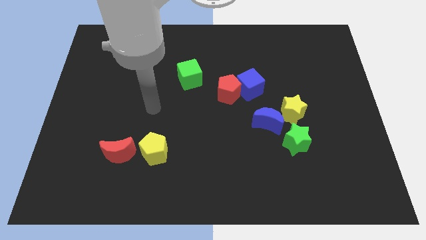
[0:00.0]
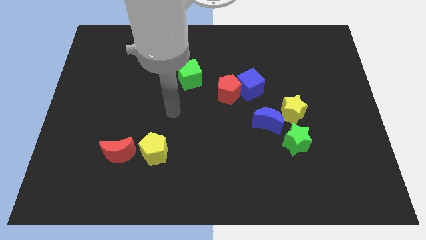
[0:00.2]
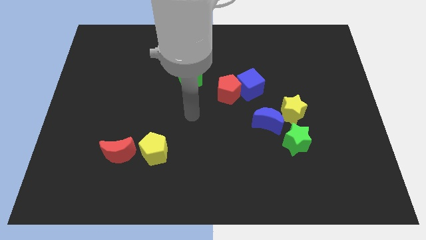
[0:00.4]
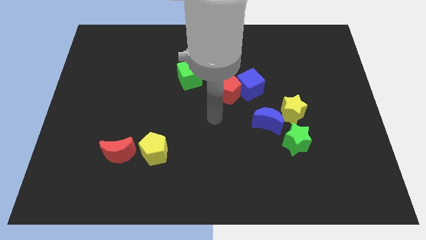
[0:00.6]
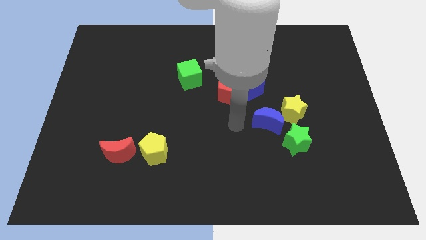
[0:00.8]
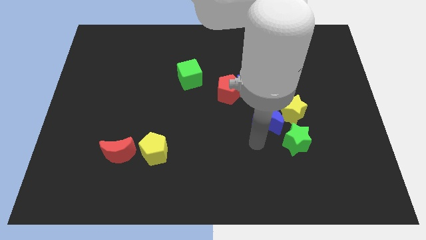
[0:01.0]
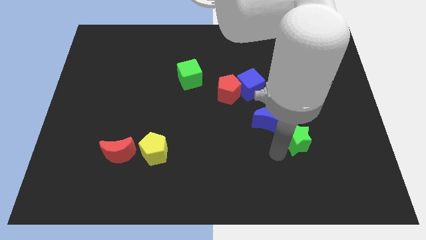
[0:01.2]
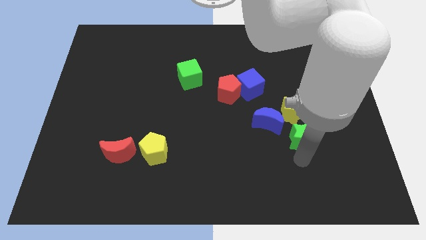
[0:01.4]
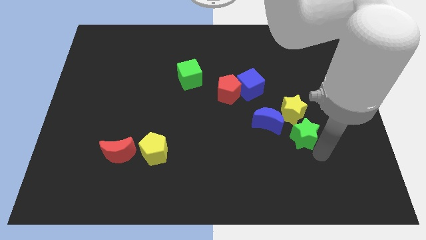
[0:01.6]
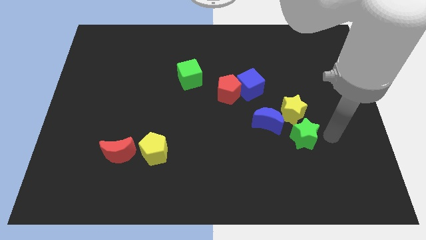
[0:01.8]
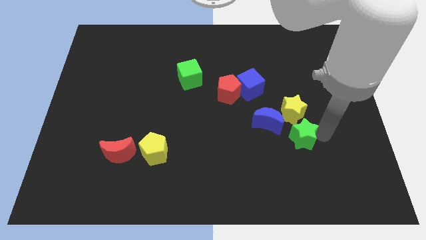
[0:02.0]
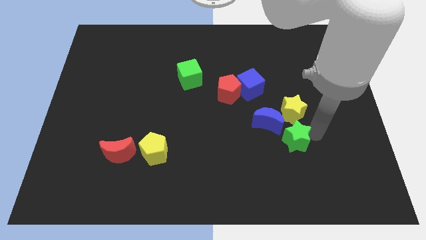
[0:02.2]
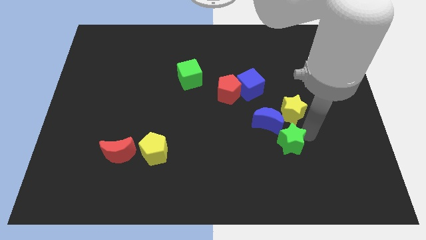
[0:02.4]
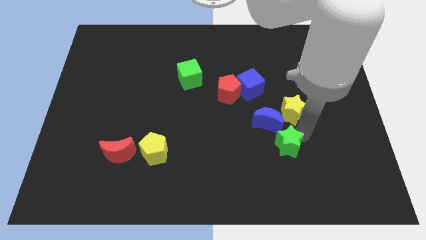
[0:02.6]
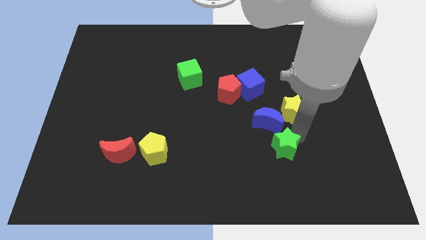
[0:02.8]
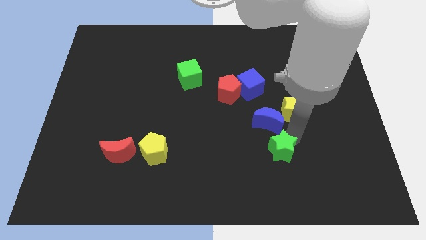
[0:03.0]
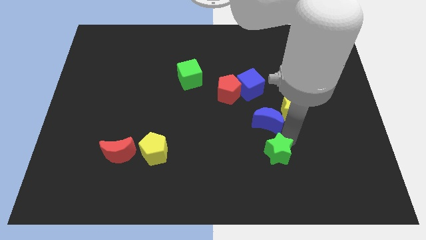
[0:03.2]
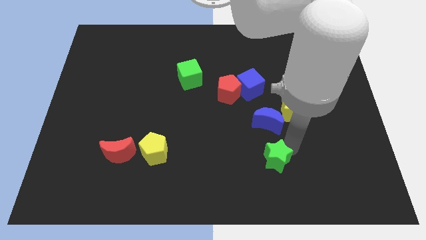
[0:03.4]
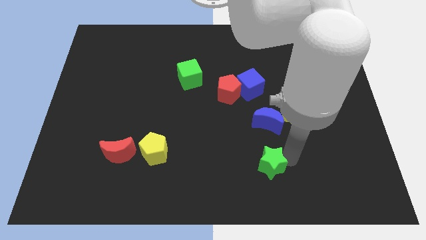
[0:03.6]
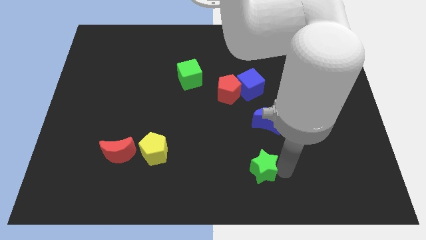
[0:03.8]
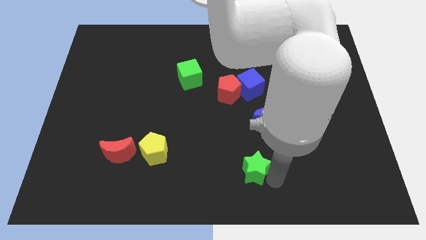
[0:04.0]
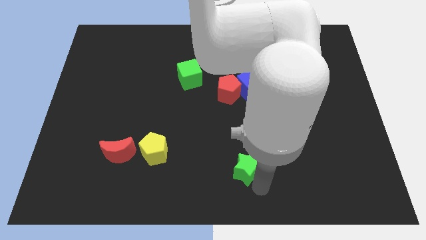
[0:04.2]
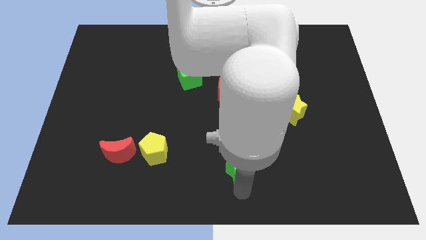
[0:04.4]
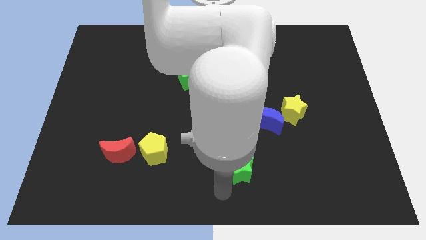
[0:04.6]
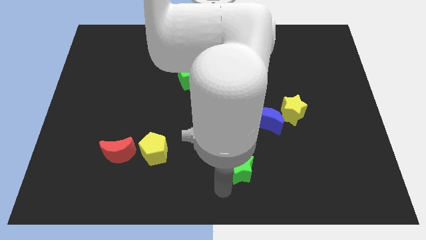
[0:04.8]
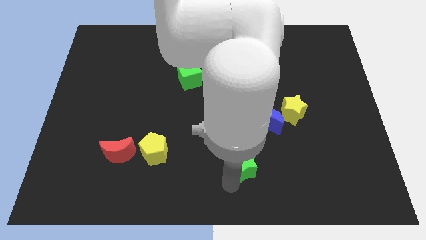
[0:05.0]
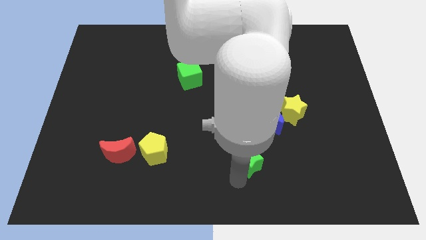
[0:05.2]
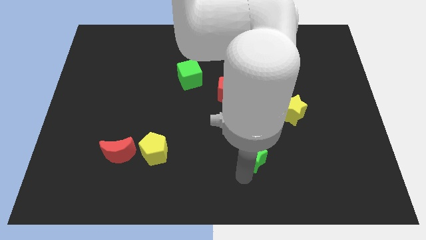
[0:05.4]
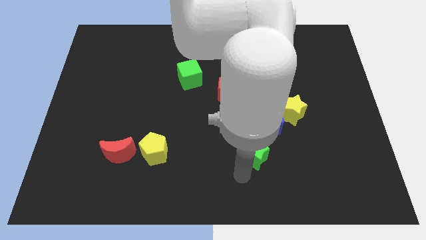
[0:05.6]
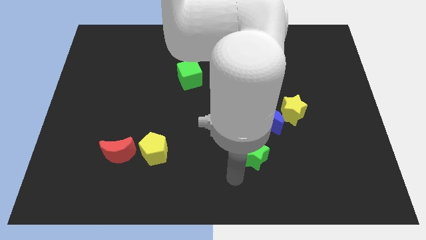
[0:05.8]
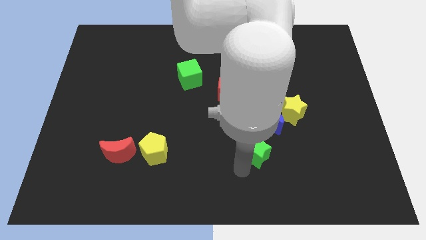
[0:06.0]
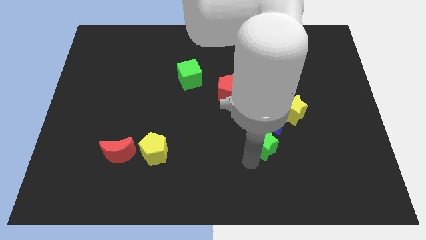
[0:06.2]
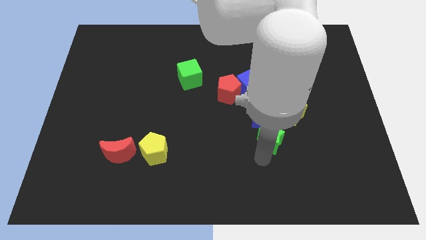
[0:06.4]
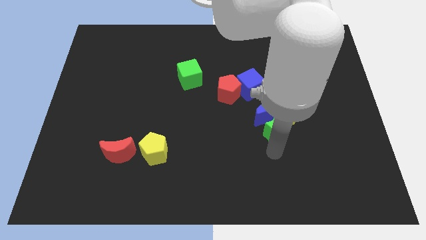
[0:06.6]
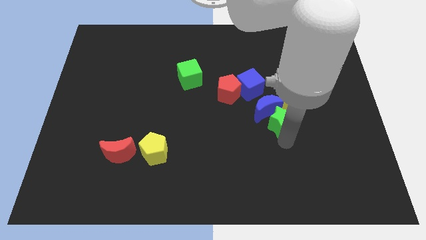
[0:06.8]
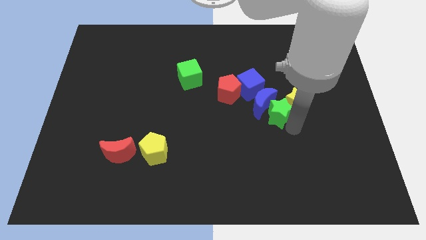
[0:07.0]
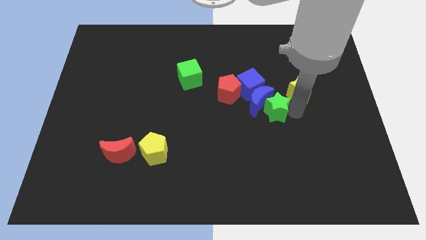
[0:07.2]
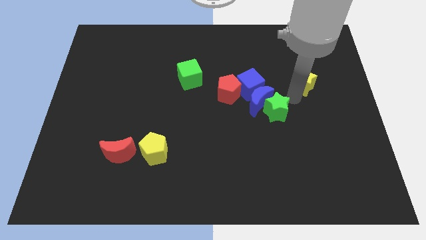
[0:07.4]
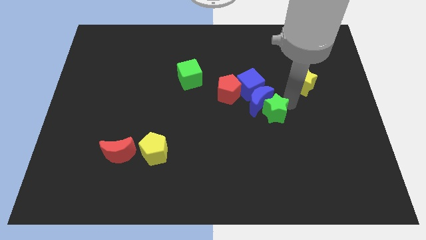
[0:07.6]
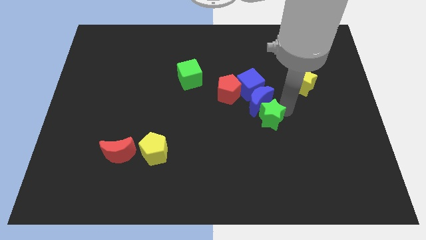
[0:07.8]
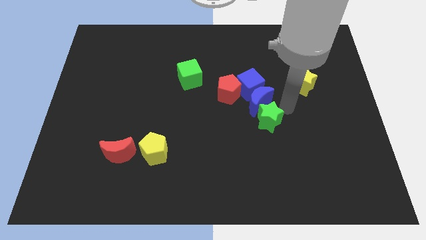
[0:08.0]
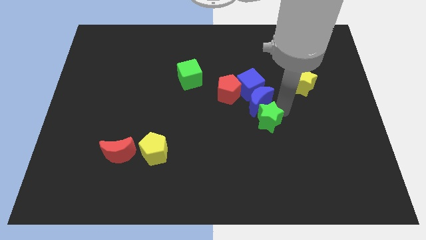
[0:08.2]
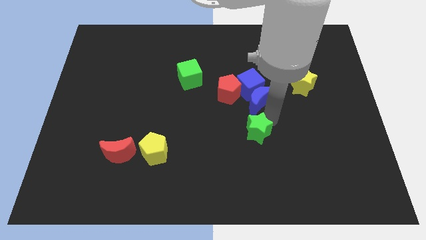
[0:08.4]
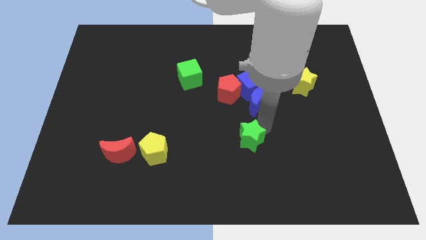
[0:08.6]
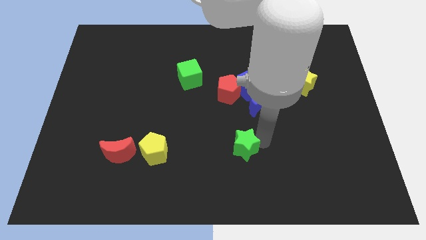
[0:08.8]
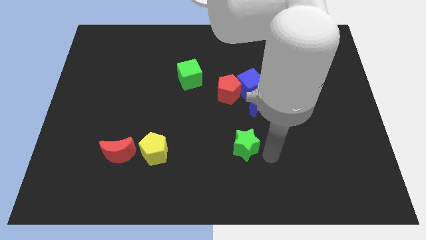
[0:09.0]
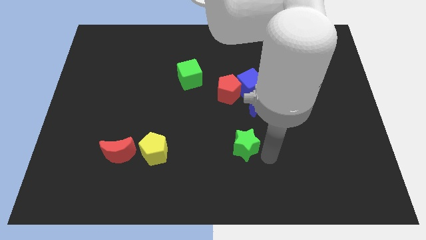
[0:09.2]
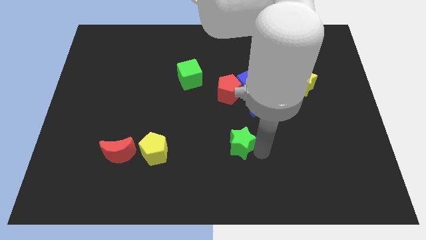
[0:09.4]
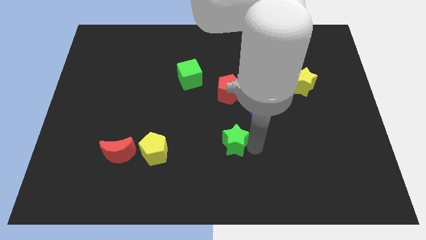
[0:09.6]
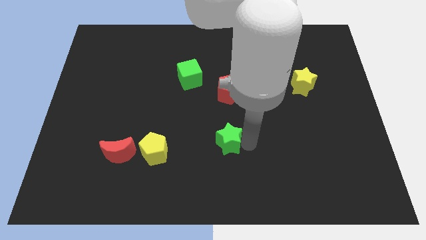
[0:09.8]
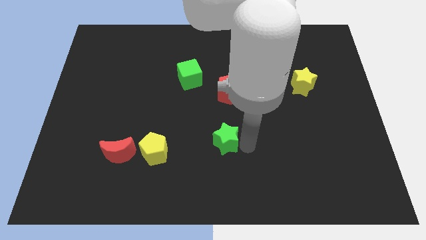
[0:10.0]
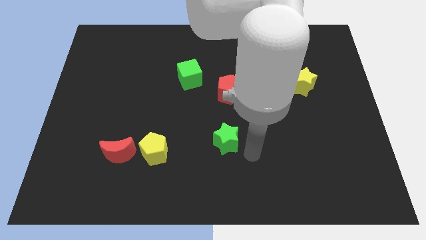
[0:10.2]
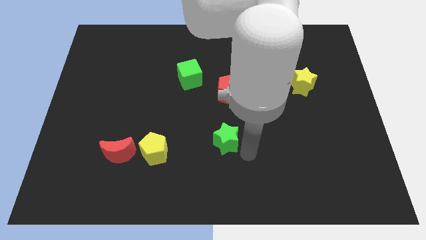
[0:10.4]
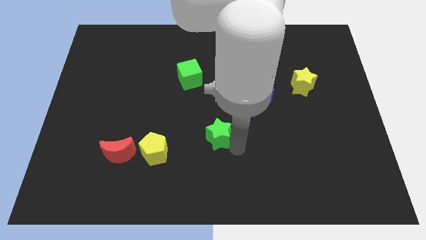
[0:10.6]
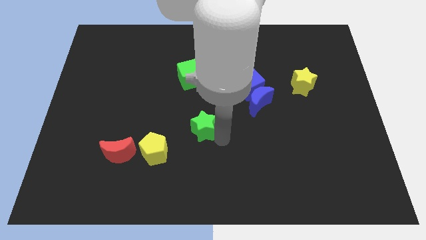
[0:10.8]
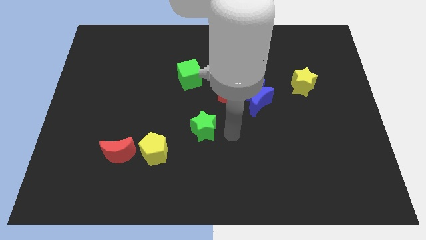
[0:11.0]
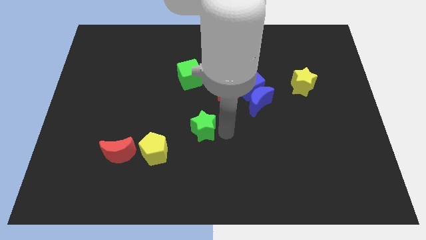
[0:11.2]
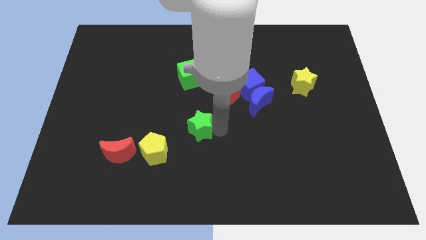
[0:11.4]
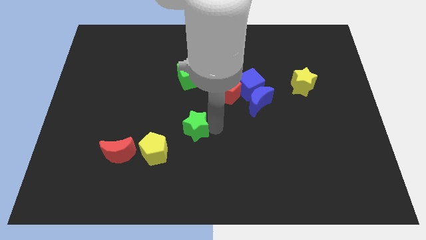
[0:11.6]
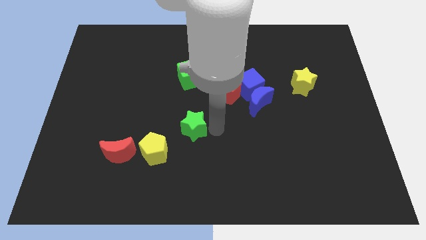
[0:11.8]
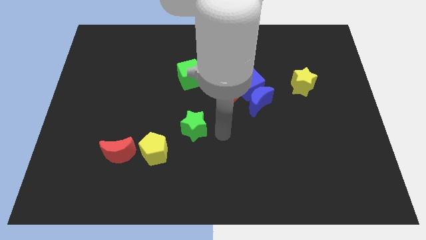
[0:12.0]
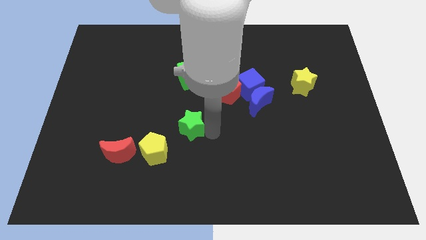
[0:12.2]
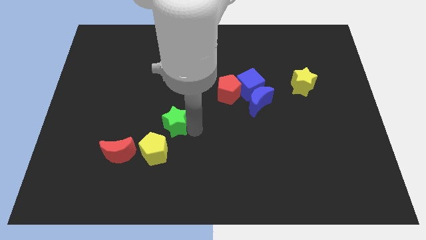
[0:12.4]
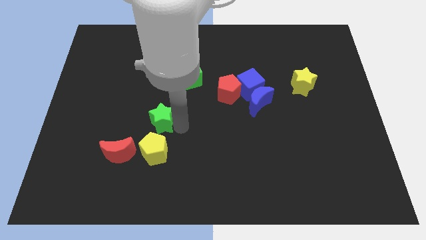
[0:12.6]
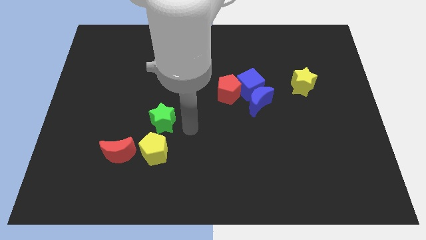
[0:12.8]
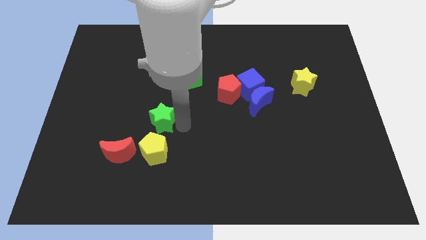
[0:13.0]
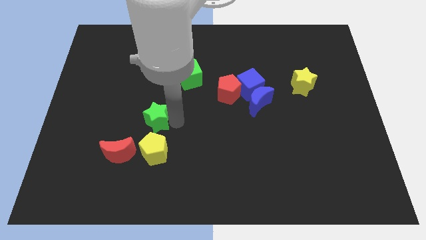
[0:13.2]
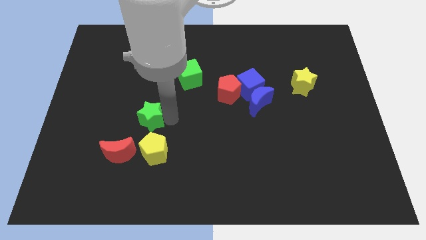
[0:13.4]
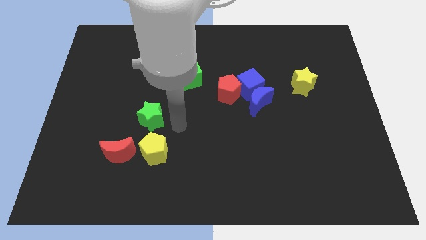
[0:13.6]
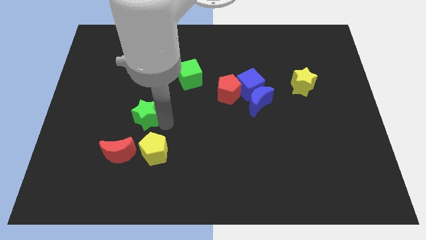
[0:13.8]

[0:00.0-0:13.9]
move the green star to the top of the red moon

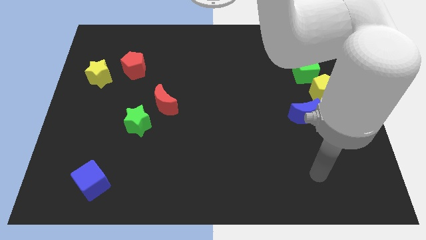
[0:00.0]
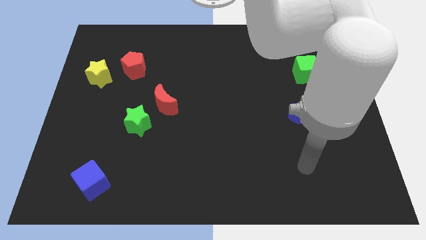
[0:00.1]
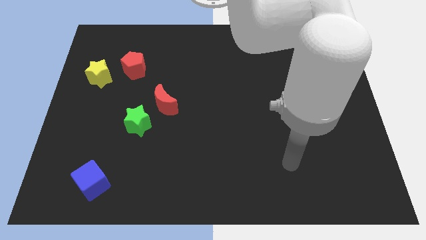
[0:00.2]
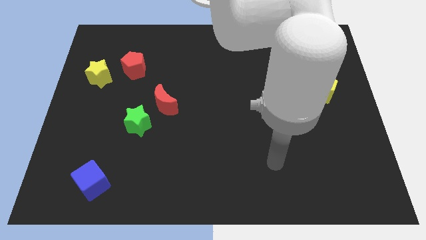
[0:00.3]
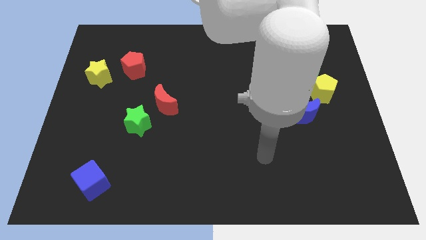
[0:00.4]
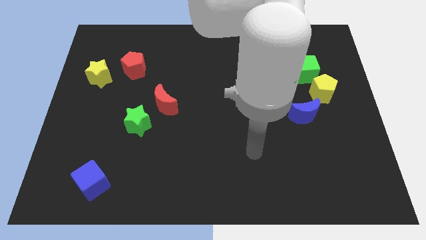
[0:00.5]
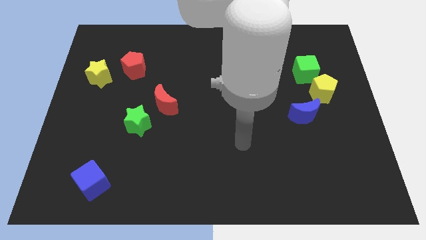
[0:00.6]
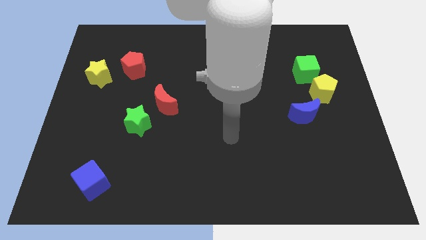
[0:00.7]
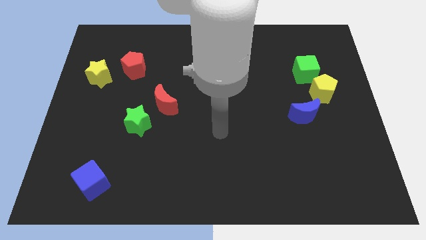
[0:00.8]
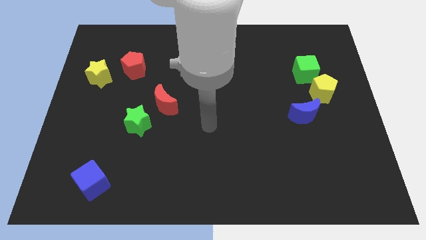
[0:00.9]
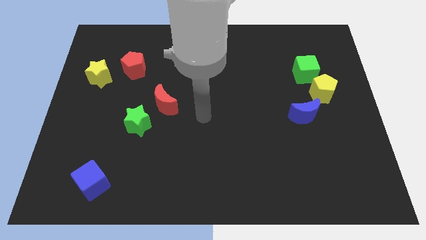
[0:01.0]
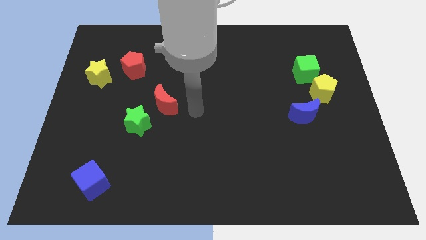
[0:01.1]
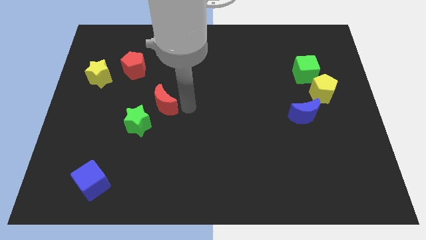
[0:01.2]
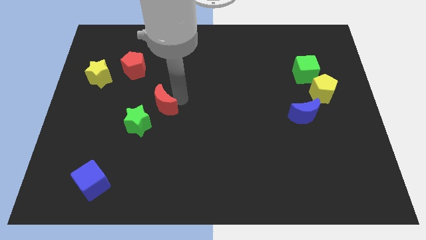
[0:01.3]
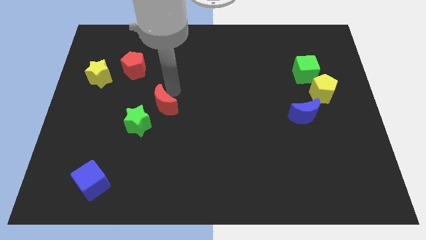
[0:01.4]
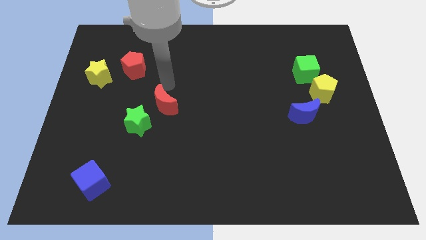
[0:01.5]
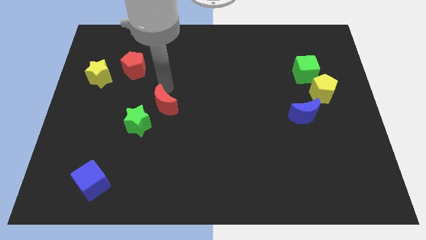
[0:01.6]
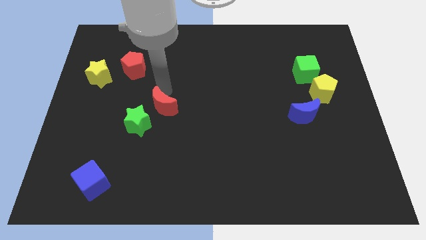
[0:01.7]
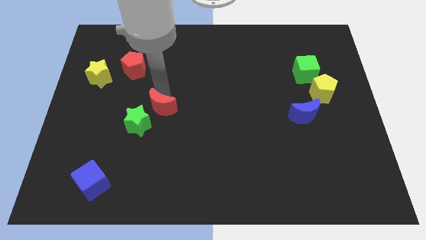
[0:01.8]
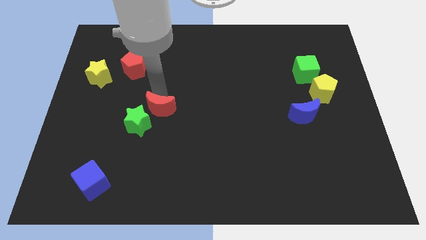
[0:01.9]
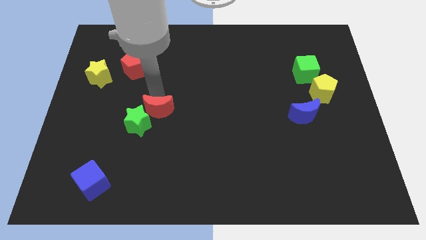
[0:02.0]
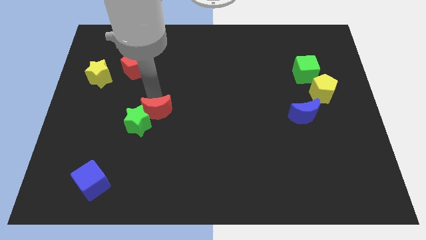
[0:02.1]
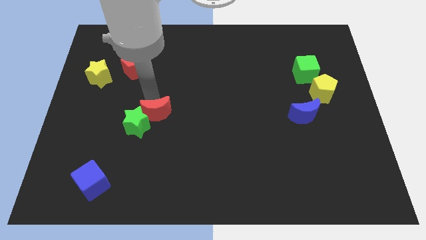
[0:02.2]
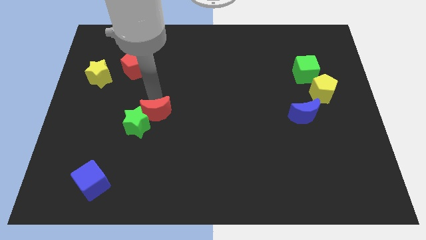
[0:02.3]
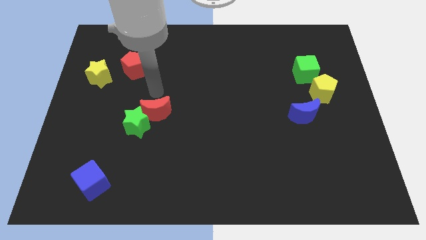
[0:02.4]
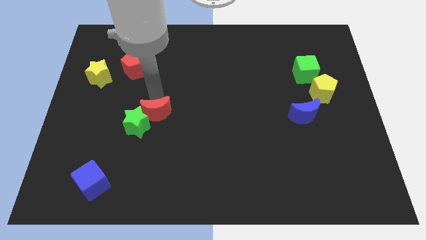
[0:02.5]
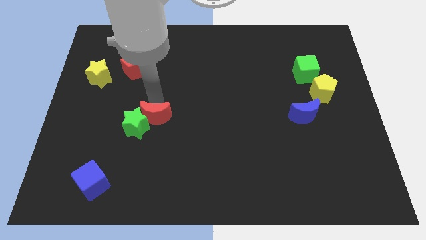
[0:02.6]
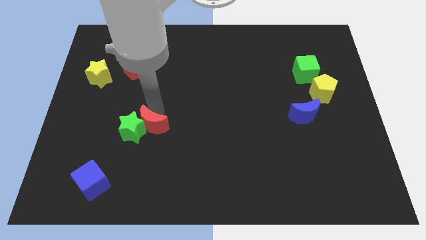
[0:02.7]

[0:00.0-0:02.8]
put the red moon to the bottom right of the green star
